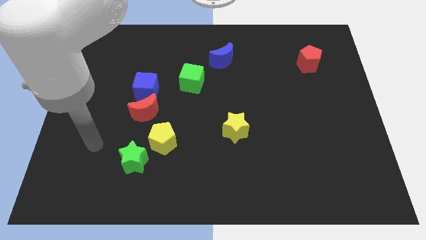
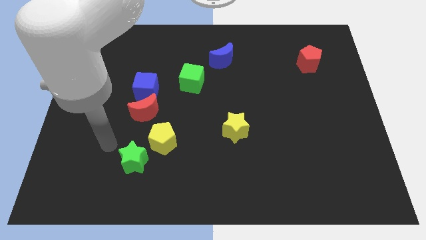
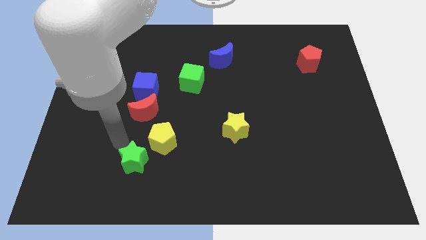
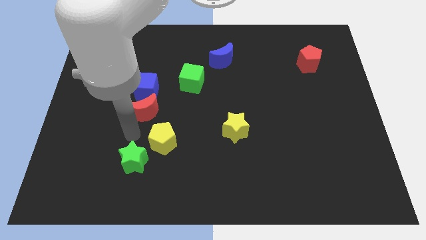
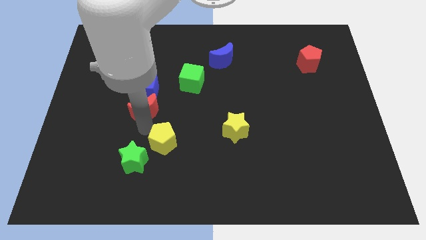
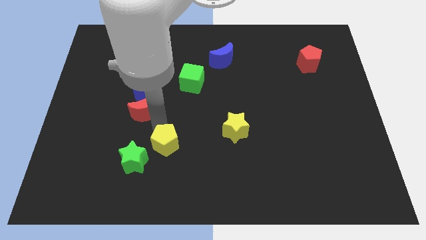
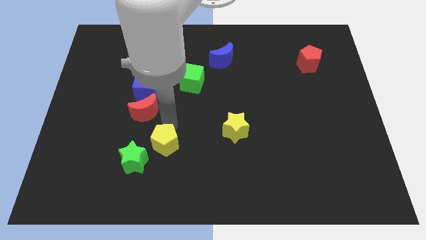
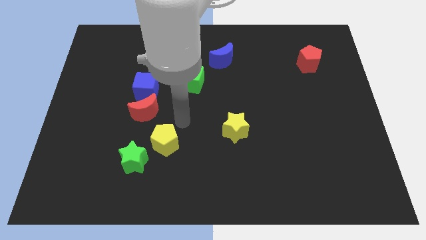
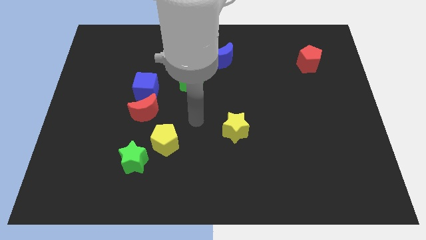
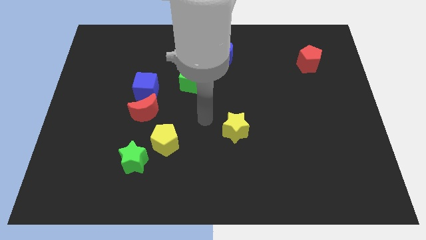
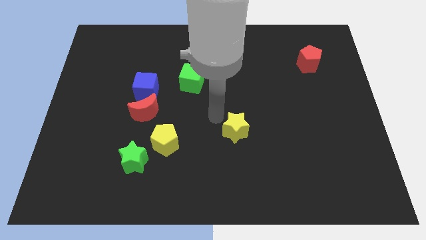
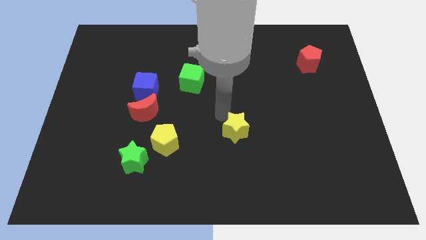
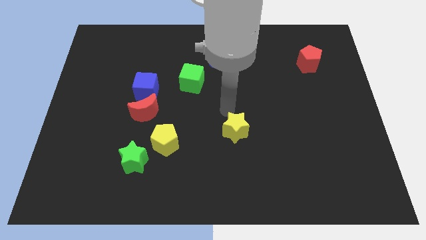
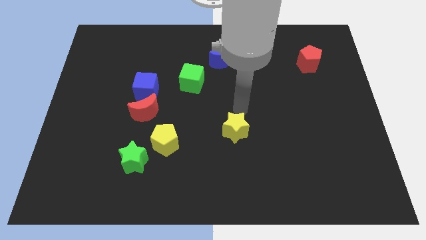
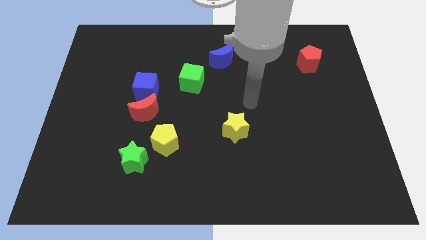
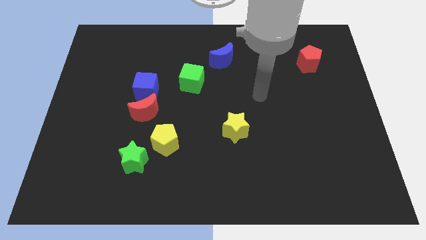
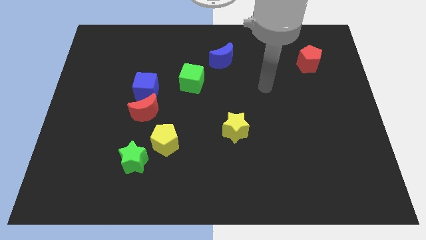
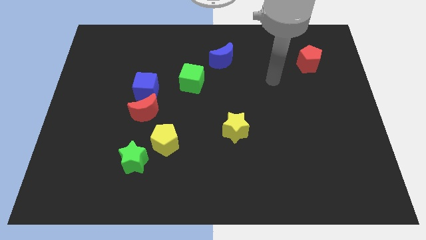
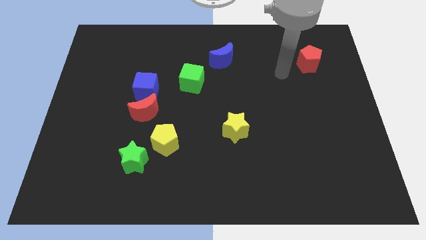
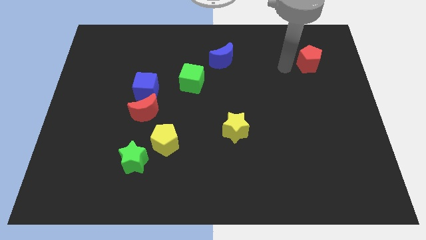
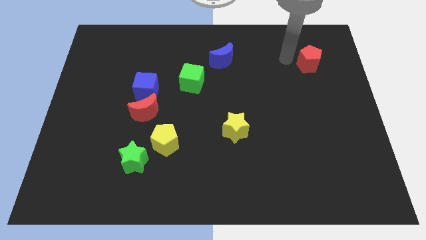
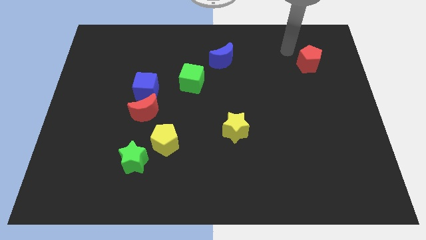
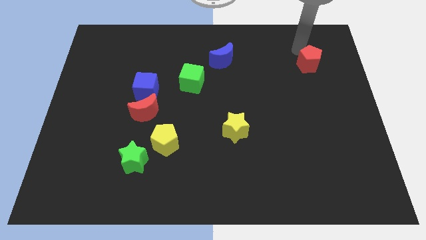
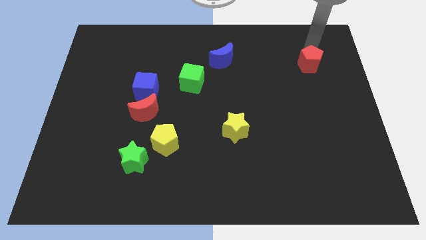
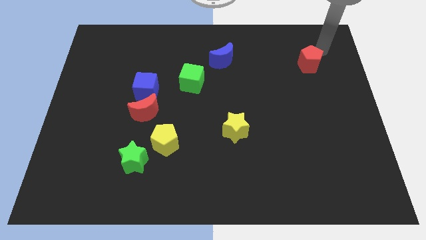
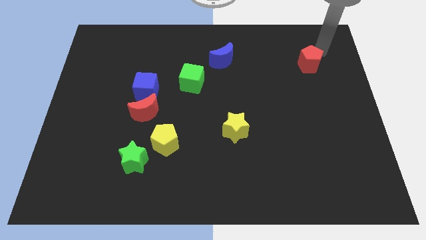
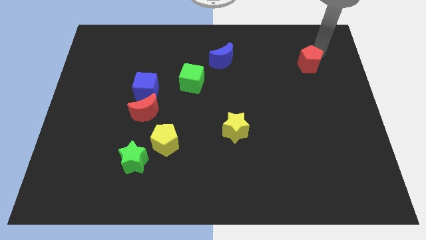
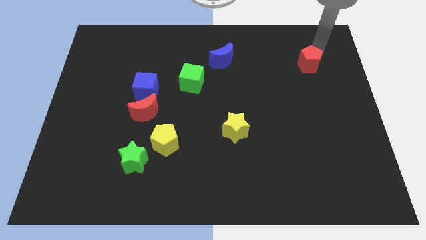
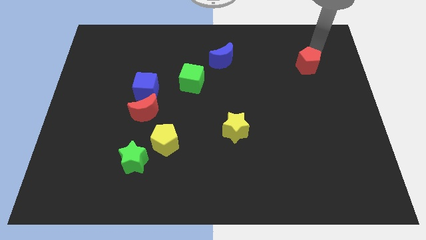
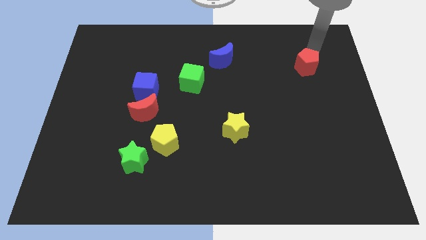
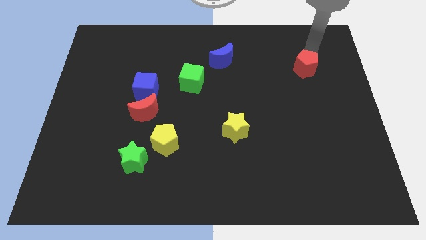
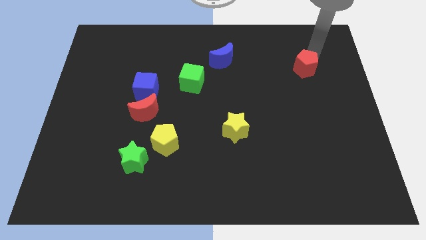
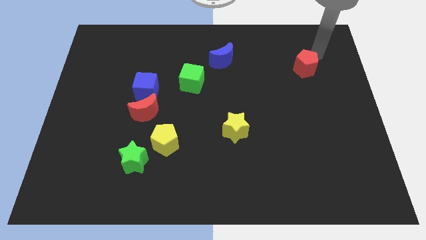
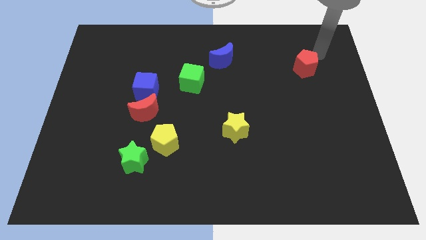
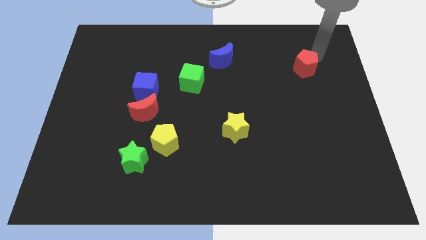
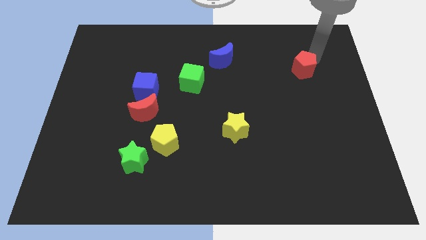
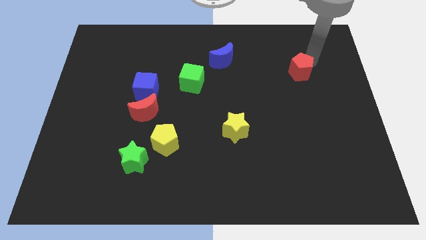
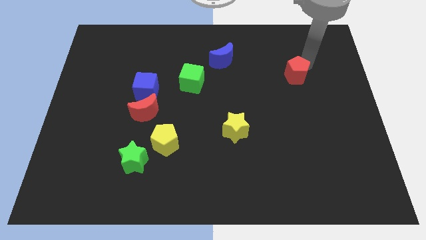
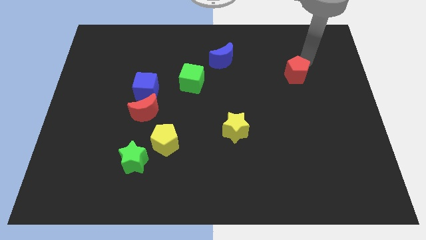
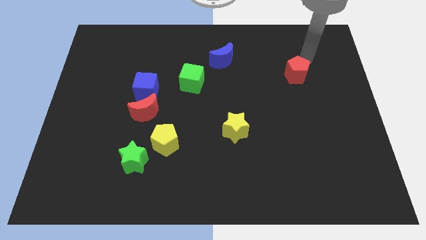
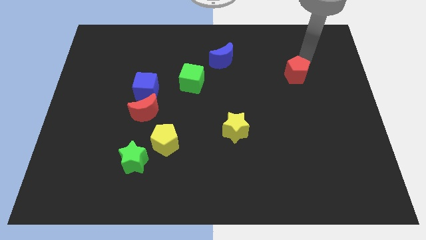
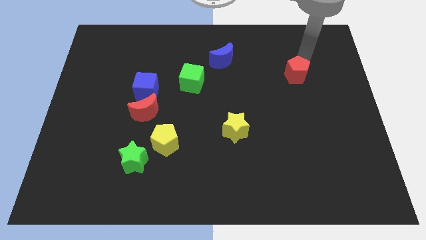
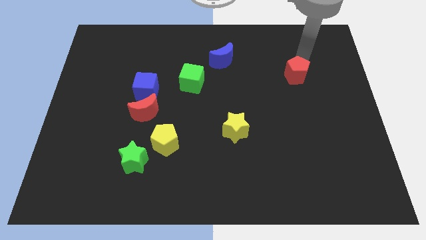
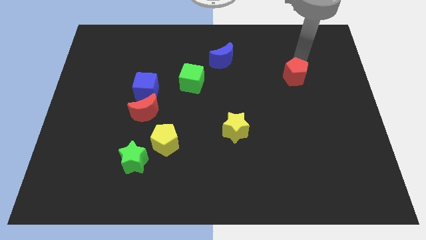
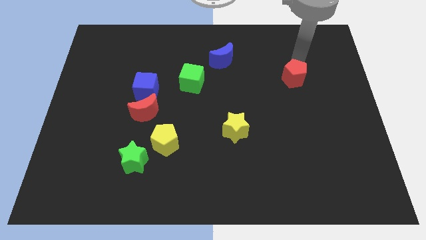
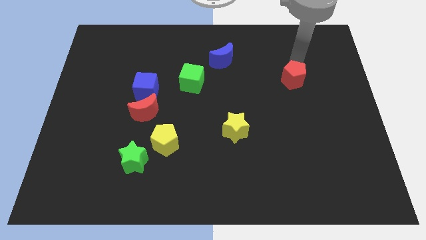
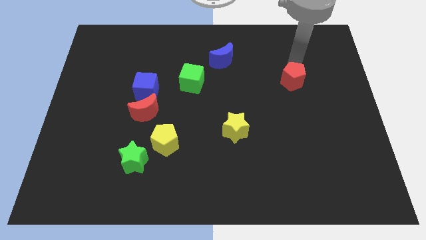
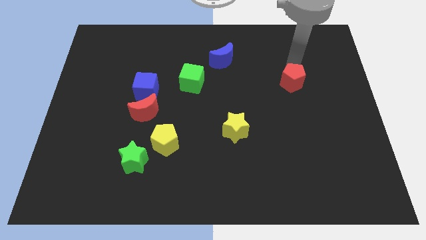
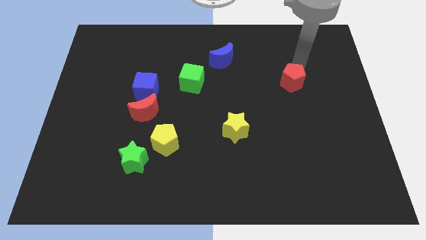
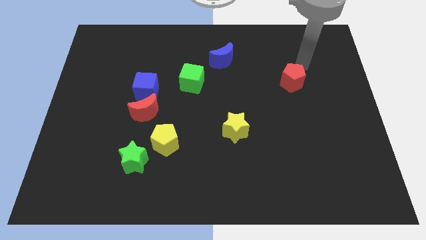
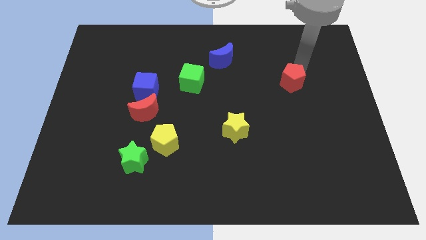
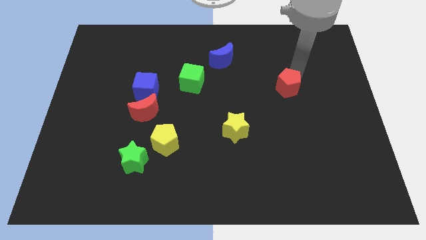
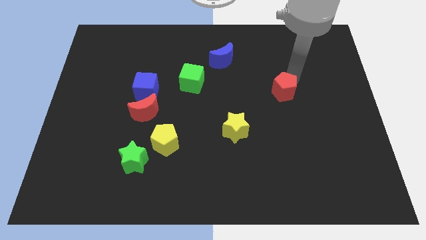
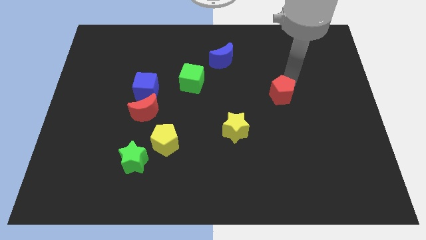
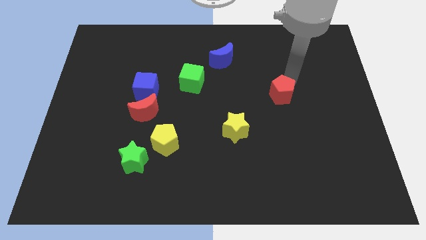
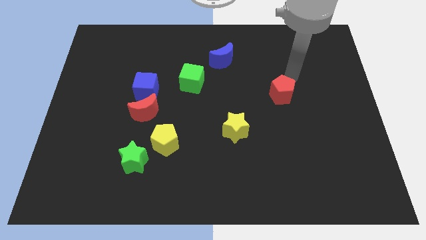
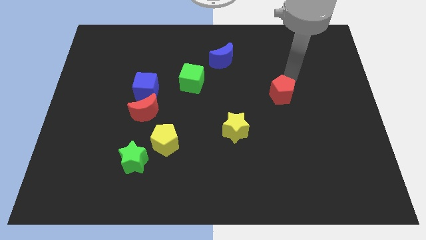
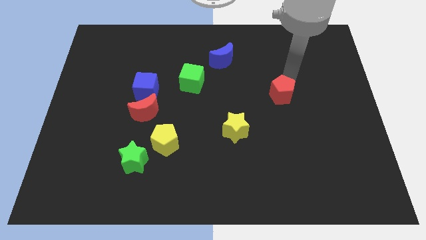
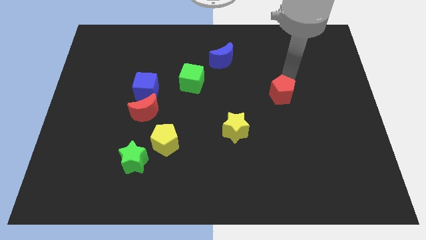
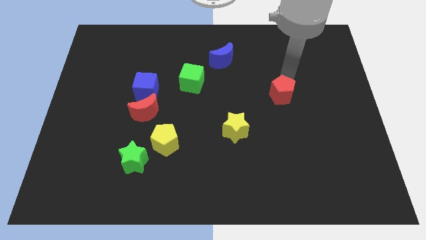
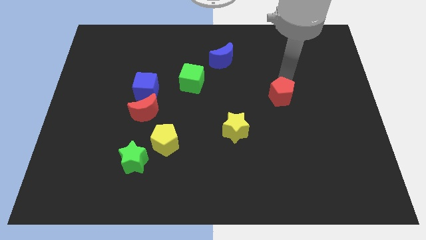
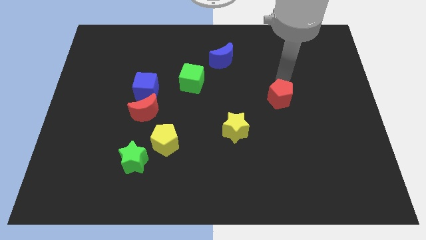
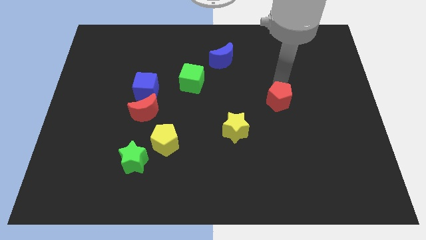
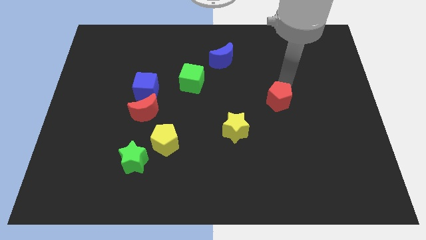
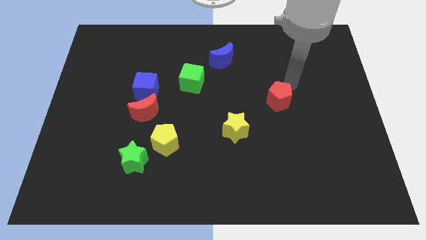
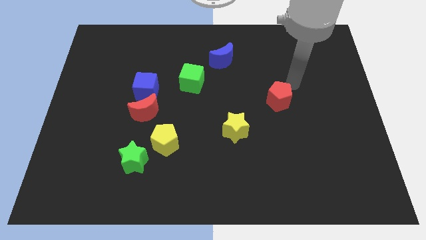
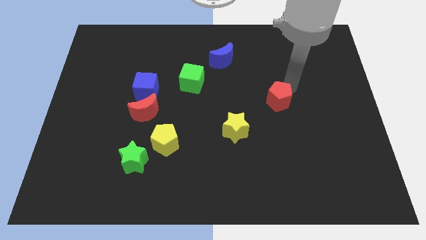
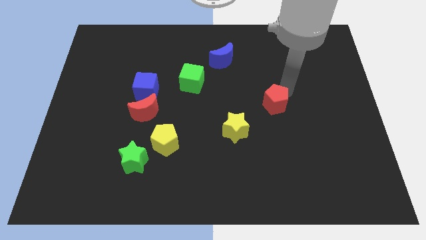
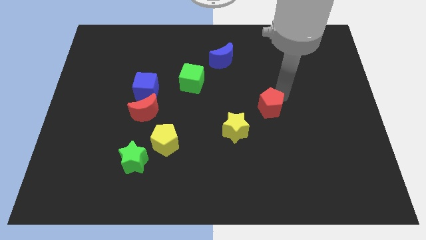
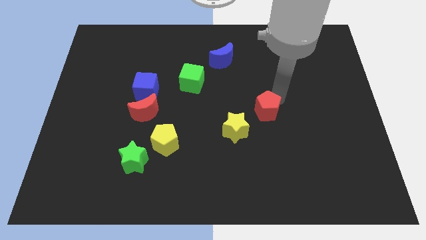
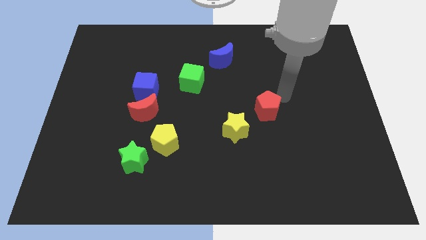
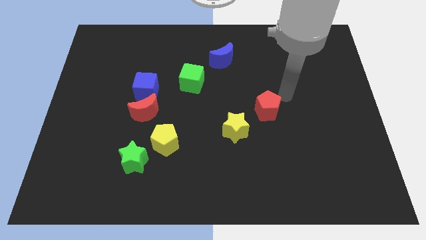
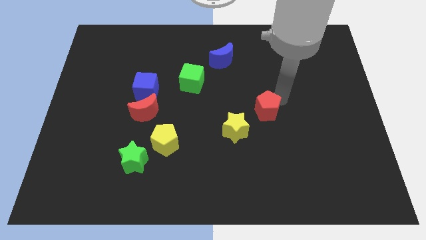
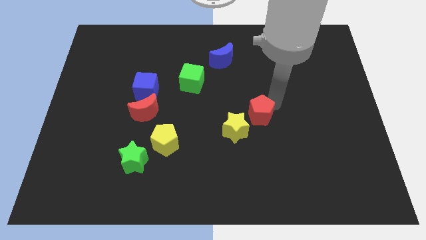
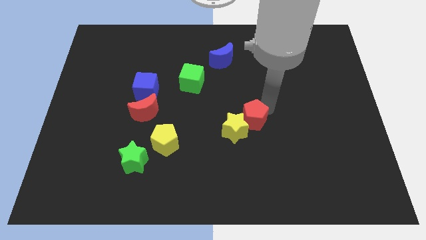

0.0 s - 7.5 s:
move the red pentagon close to the yellow star
